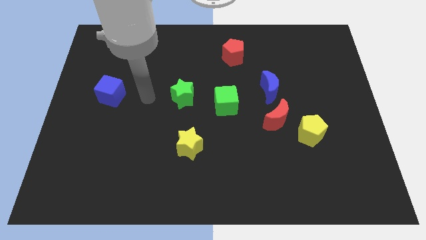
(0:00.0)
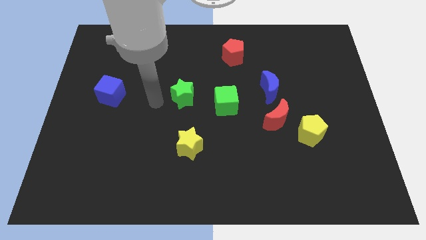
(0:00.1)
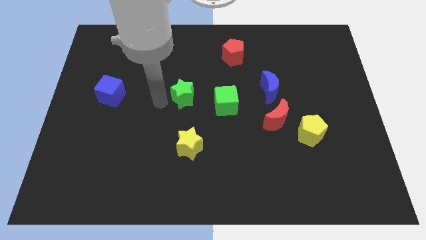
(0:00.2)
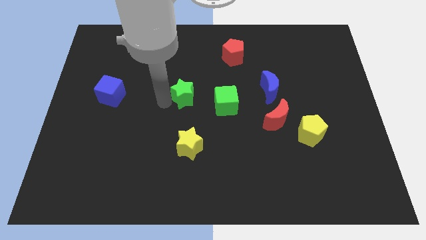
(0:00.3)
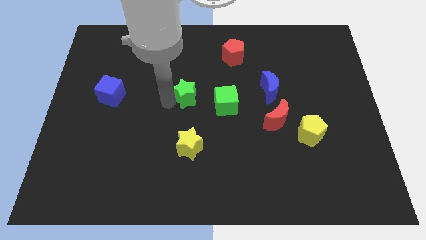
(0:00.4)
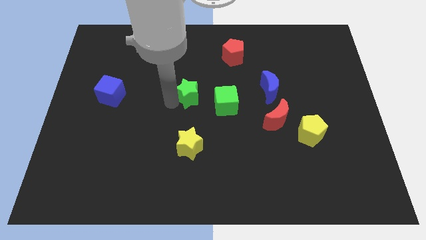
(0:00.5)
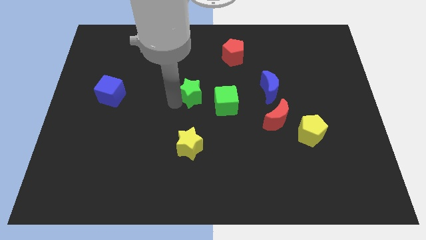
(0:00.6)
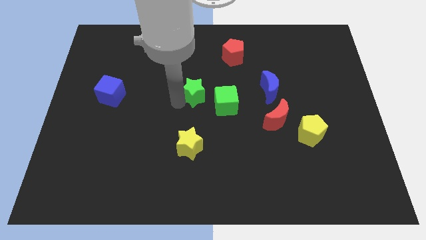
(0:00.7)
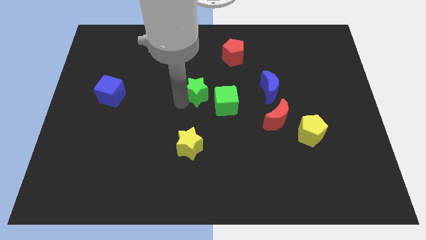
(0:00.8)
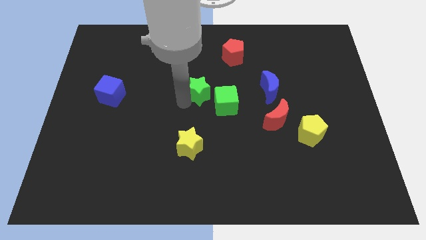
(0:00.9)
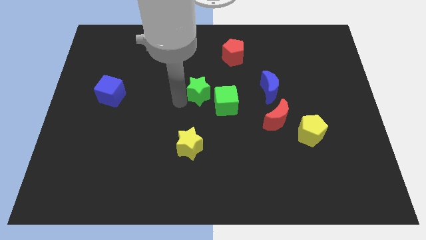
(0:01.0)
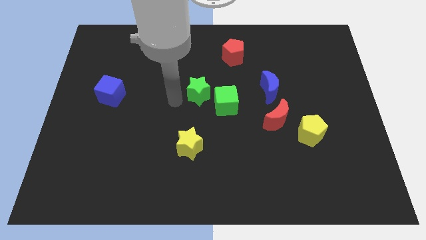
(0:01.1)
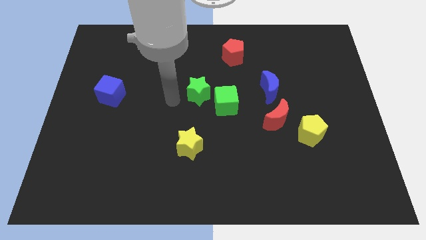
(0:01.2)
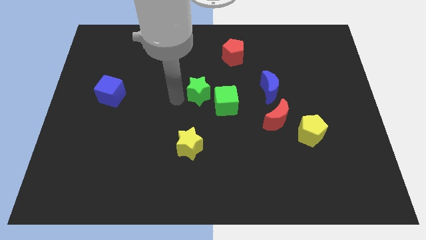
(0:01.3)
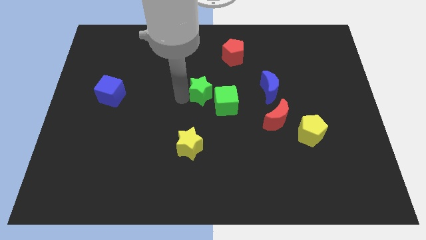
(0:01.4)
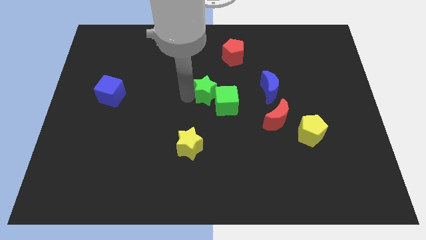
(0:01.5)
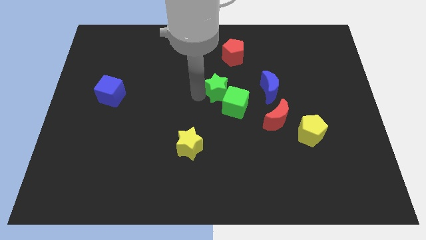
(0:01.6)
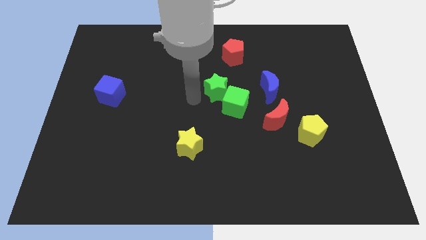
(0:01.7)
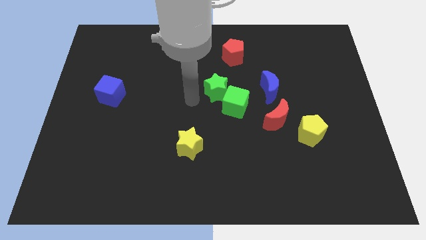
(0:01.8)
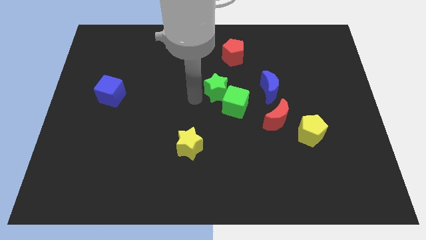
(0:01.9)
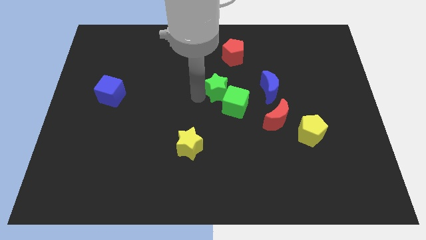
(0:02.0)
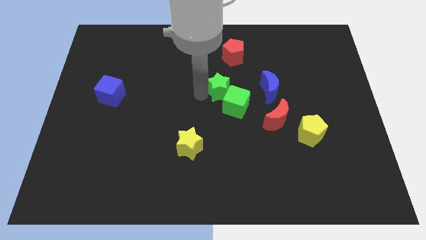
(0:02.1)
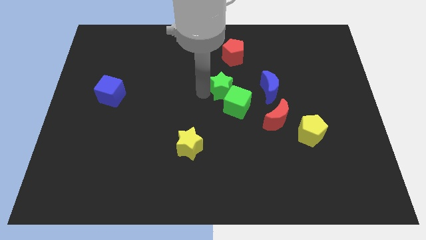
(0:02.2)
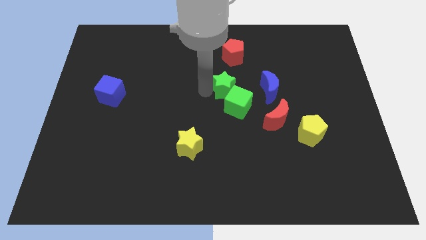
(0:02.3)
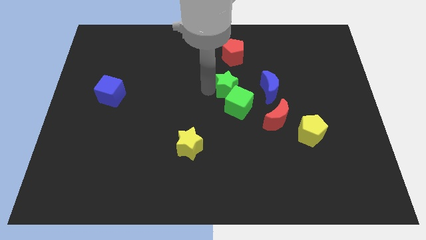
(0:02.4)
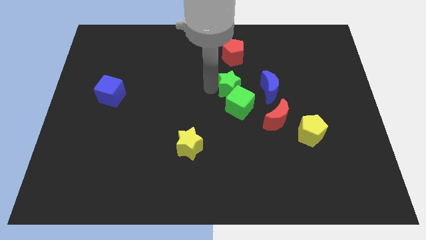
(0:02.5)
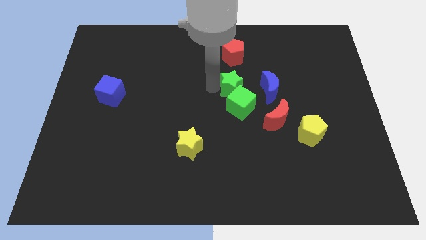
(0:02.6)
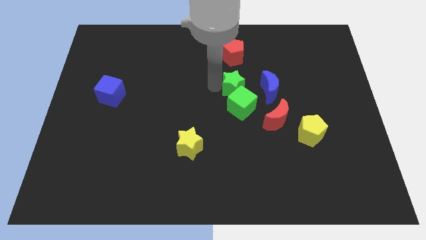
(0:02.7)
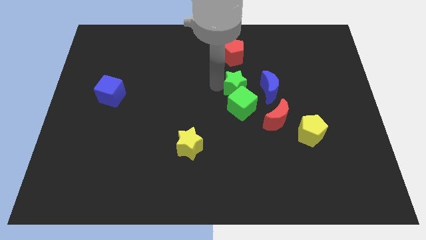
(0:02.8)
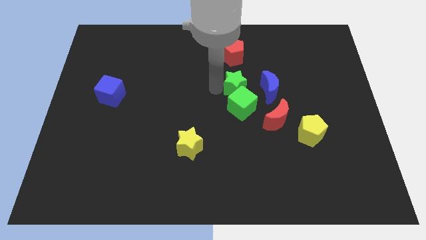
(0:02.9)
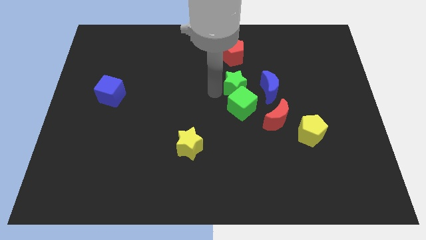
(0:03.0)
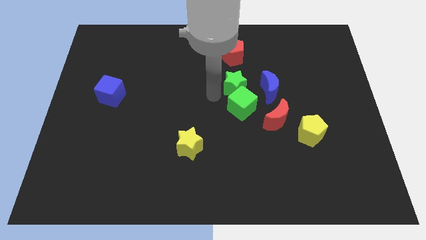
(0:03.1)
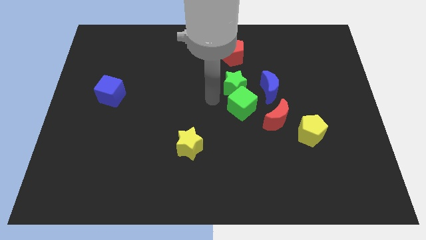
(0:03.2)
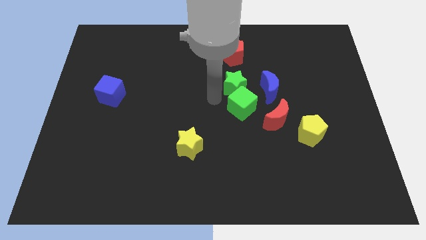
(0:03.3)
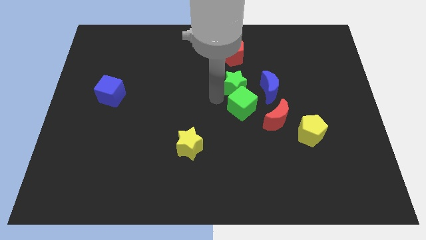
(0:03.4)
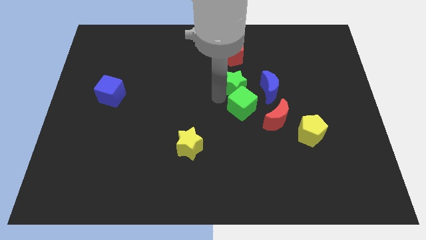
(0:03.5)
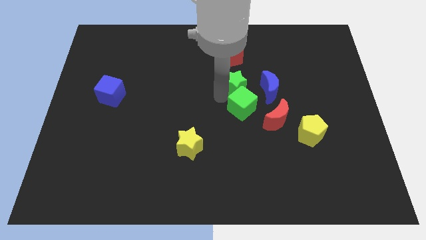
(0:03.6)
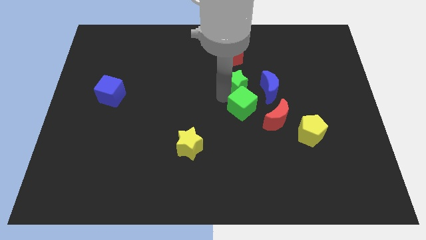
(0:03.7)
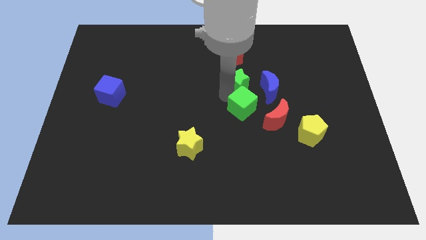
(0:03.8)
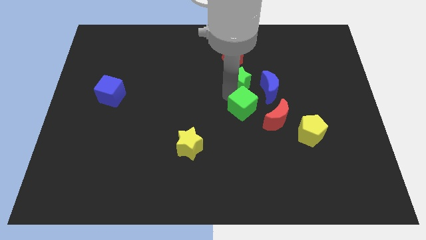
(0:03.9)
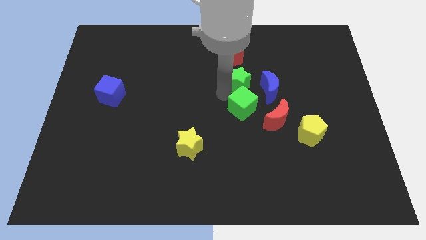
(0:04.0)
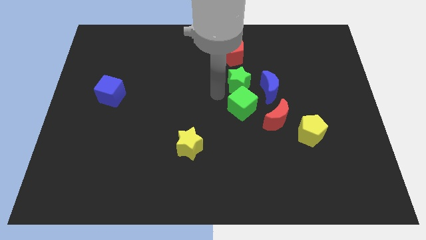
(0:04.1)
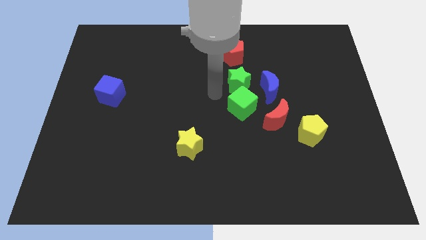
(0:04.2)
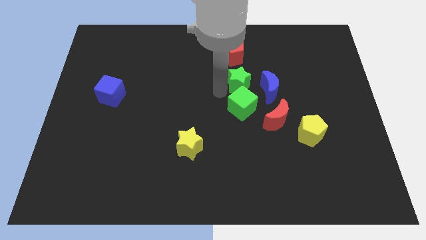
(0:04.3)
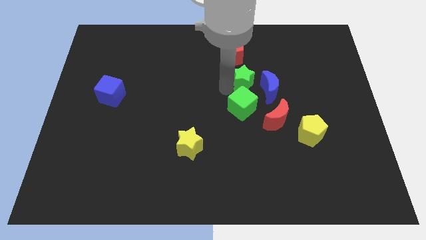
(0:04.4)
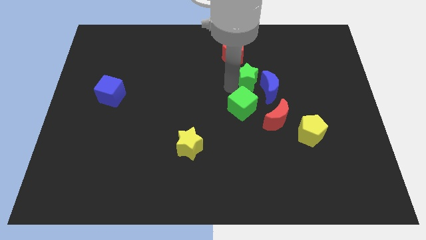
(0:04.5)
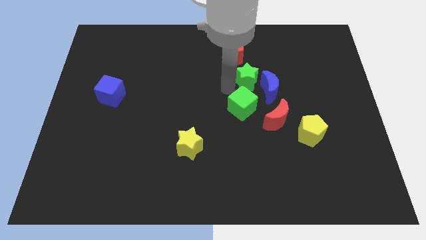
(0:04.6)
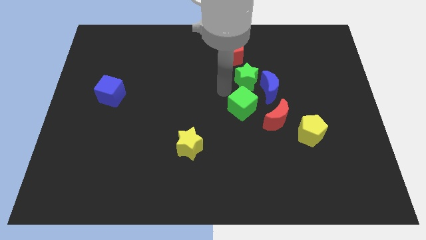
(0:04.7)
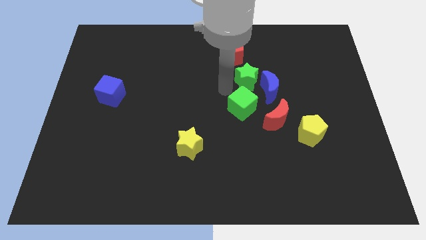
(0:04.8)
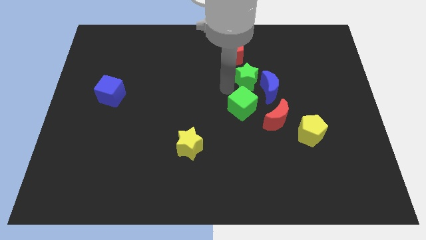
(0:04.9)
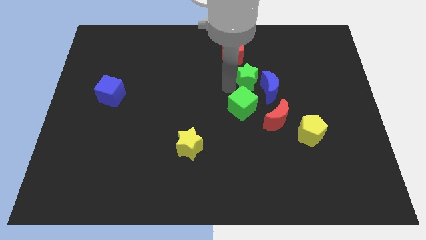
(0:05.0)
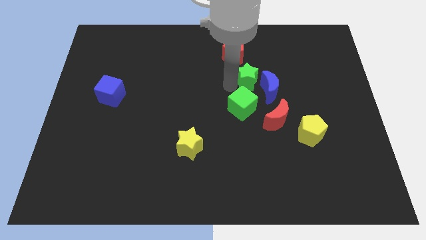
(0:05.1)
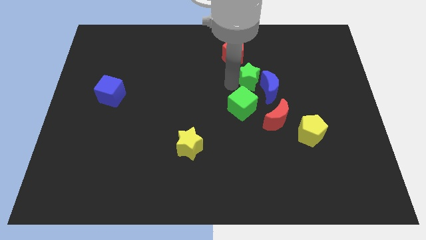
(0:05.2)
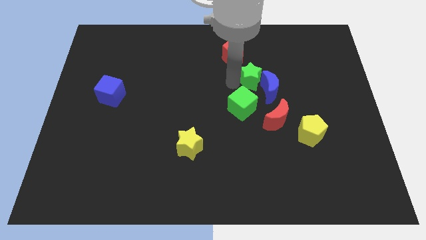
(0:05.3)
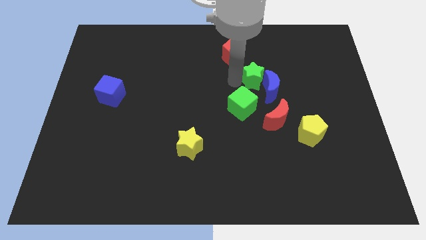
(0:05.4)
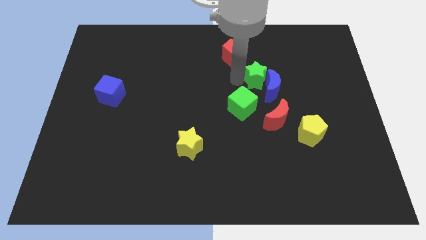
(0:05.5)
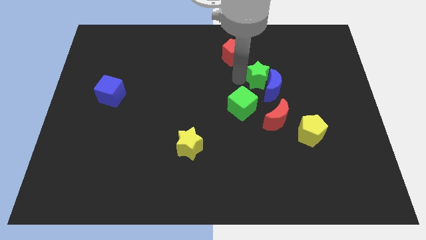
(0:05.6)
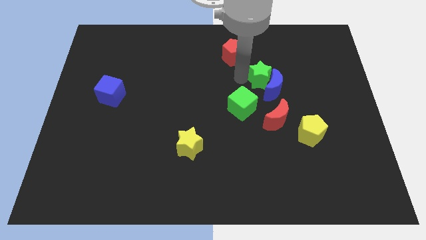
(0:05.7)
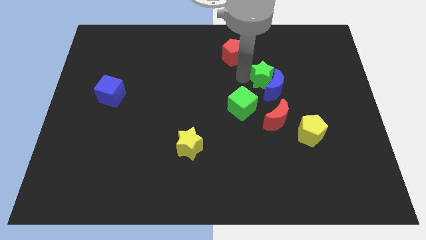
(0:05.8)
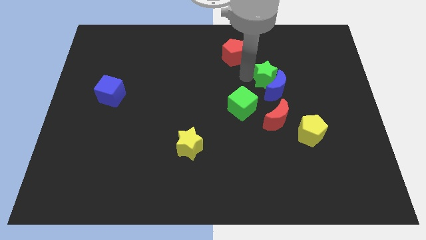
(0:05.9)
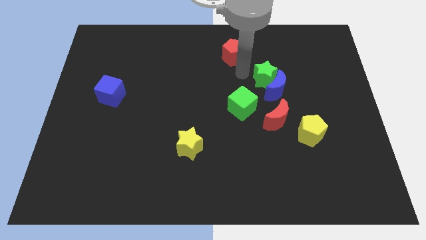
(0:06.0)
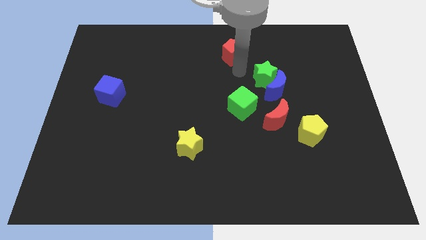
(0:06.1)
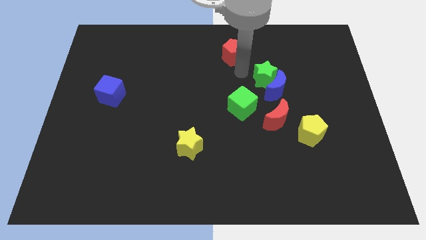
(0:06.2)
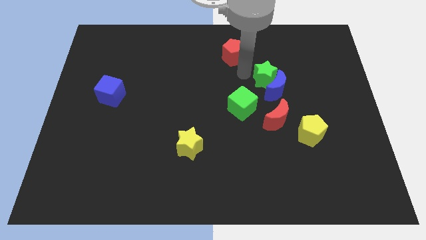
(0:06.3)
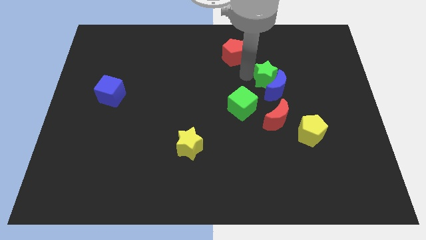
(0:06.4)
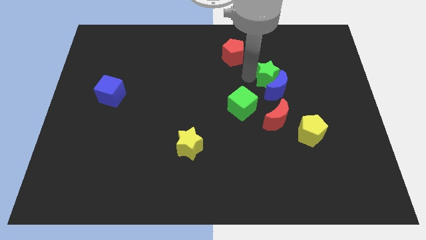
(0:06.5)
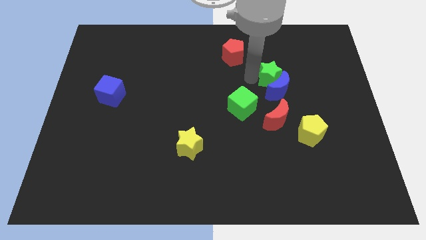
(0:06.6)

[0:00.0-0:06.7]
move the green star to the right

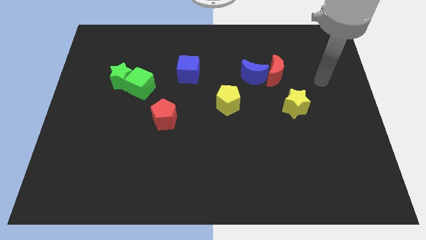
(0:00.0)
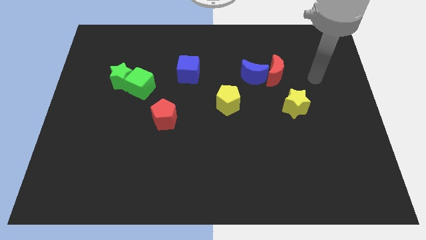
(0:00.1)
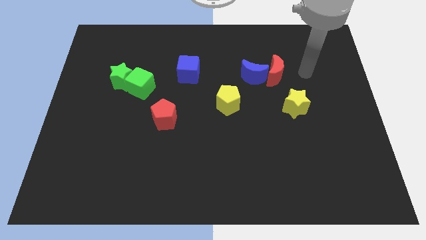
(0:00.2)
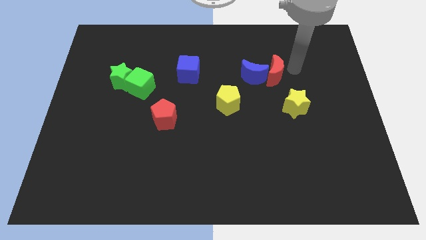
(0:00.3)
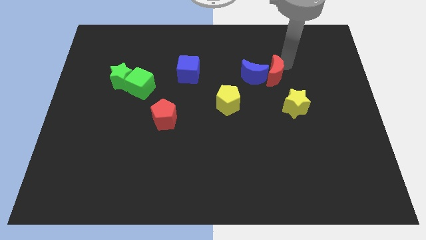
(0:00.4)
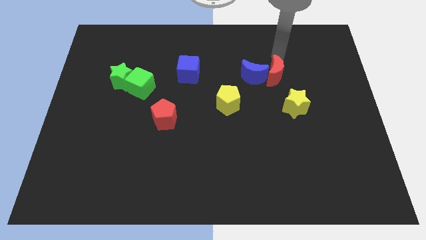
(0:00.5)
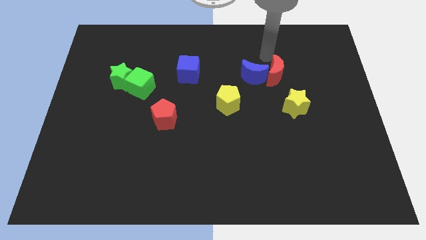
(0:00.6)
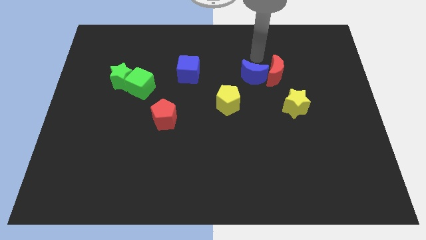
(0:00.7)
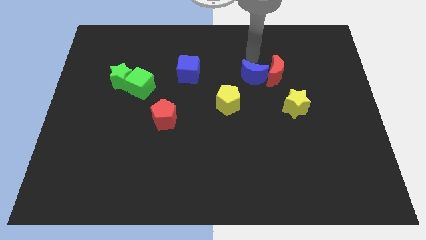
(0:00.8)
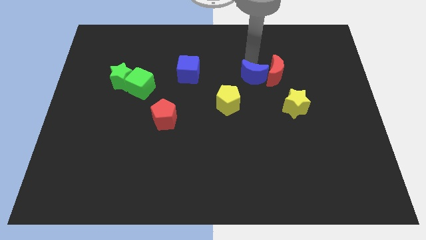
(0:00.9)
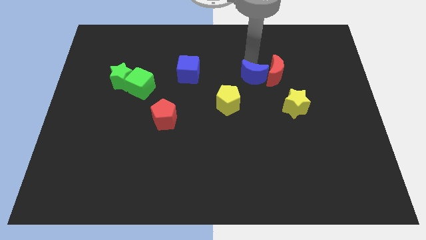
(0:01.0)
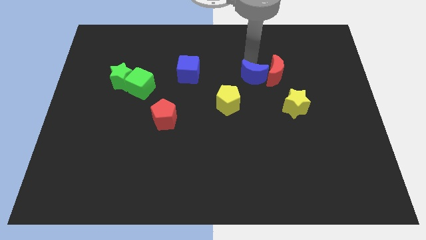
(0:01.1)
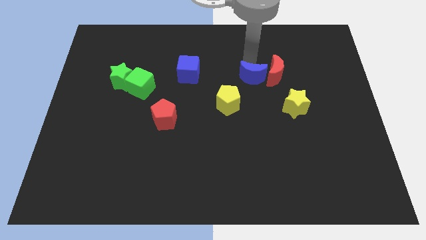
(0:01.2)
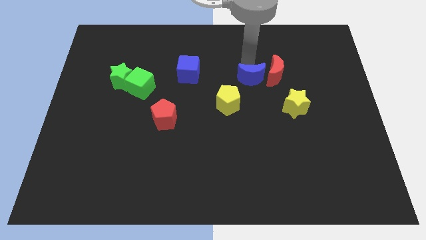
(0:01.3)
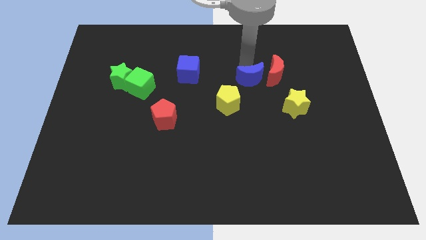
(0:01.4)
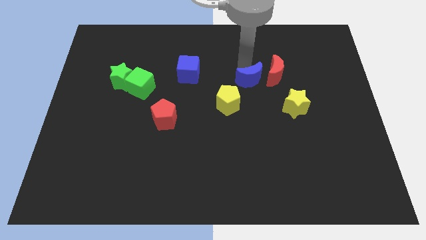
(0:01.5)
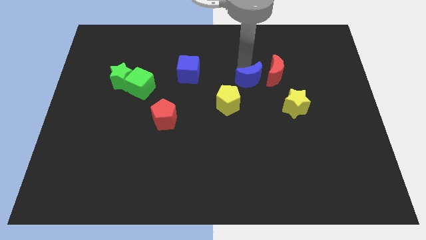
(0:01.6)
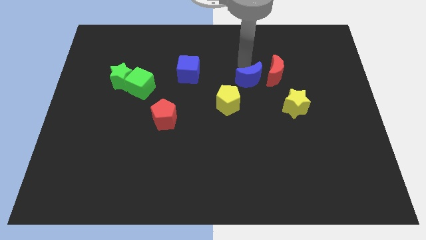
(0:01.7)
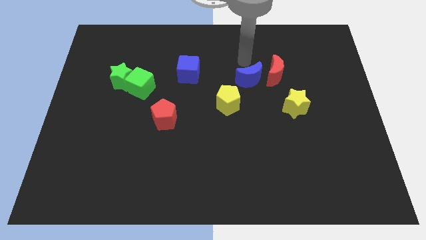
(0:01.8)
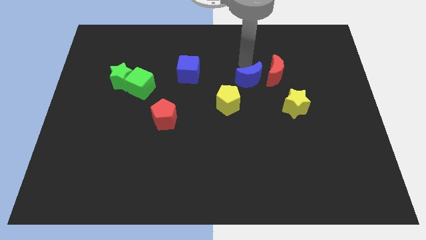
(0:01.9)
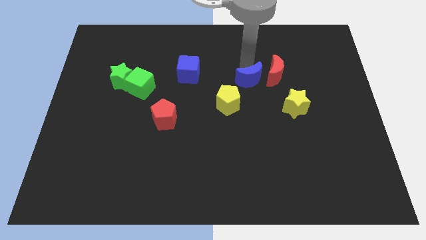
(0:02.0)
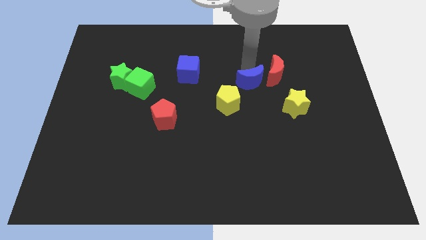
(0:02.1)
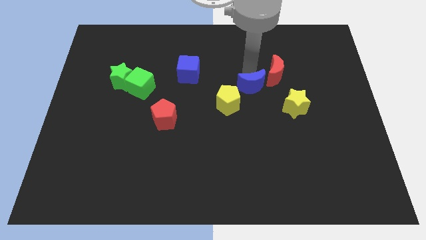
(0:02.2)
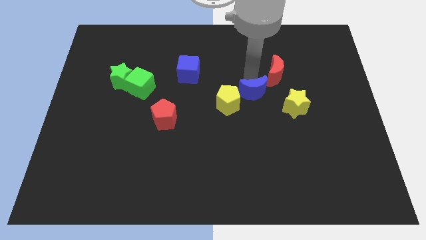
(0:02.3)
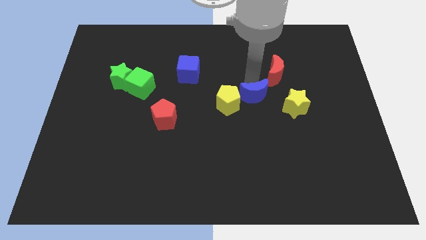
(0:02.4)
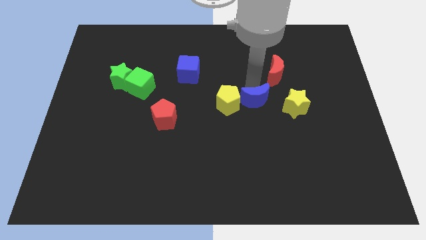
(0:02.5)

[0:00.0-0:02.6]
slide the blue moon a bit downwards
